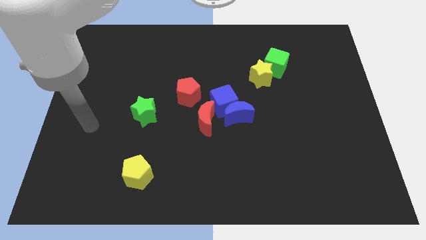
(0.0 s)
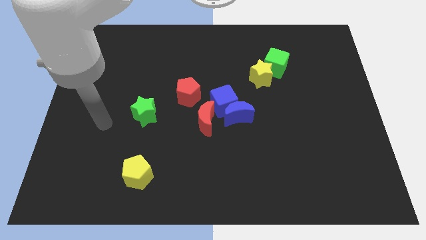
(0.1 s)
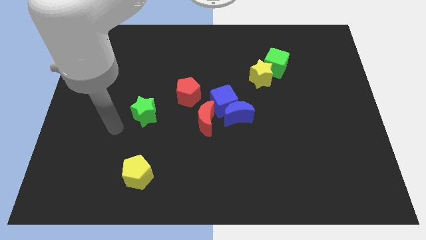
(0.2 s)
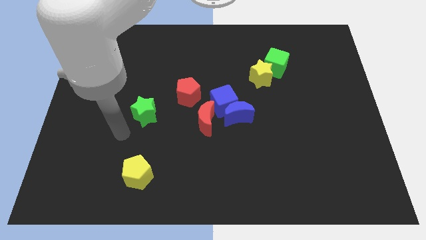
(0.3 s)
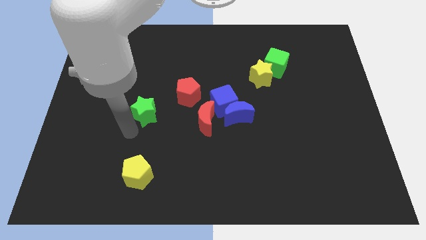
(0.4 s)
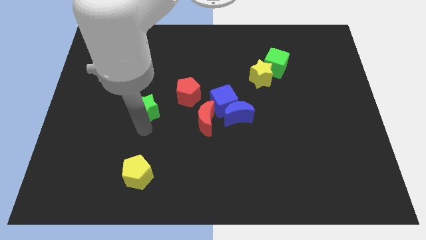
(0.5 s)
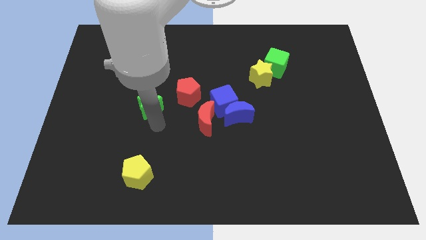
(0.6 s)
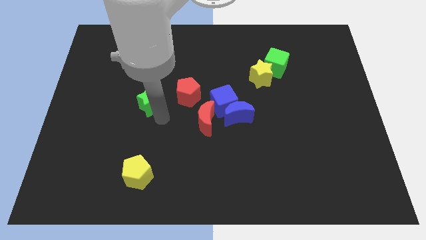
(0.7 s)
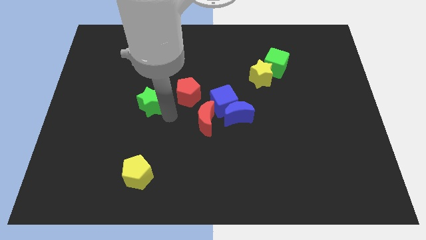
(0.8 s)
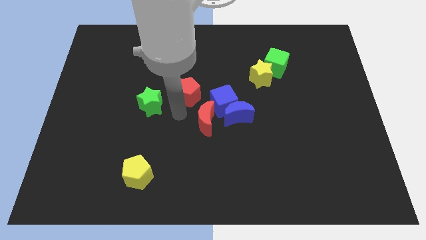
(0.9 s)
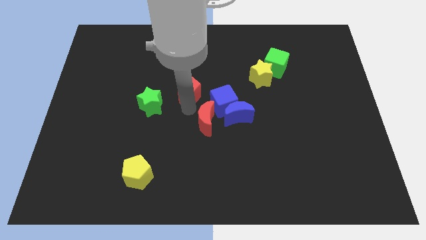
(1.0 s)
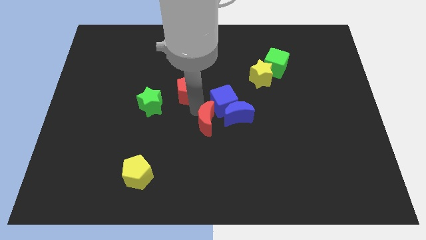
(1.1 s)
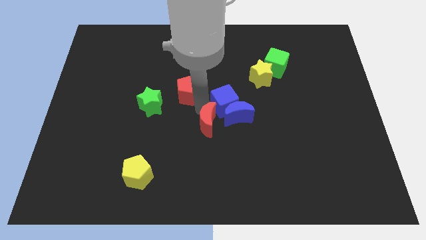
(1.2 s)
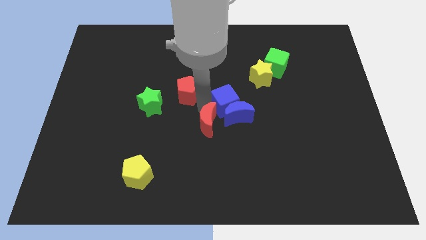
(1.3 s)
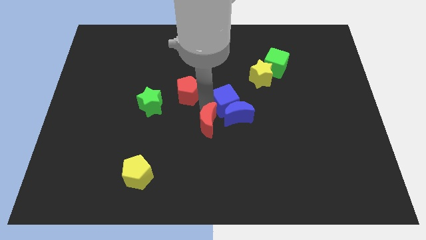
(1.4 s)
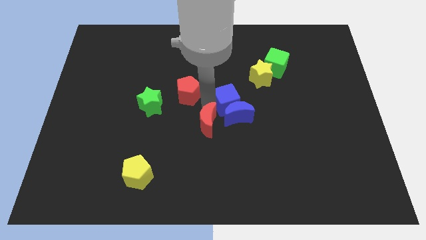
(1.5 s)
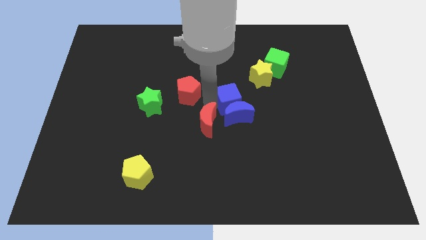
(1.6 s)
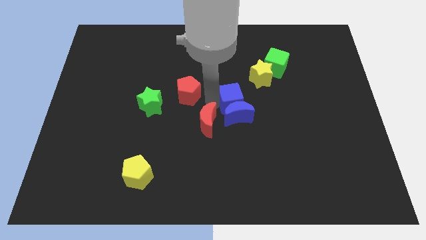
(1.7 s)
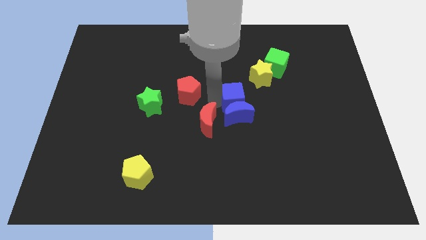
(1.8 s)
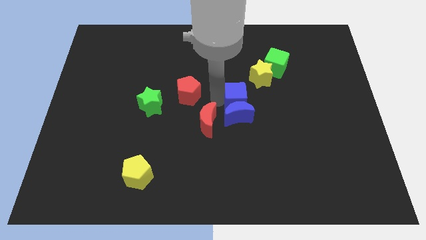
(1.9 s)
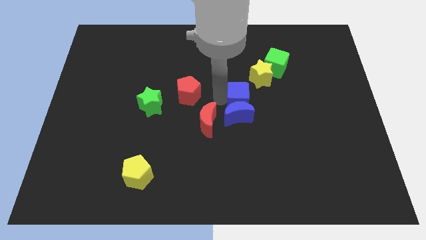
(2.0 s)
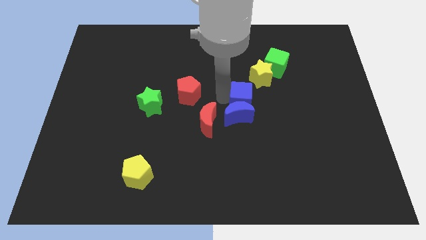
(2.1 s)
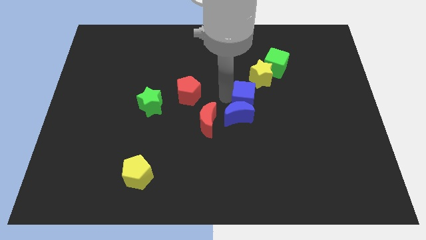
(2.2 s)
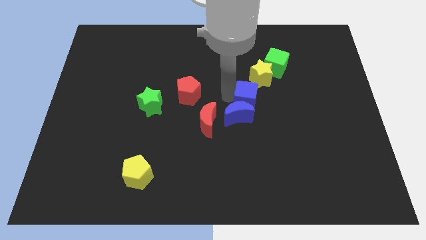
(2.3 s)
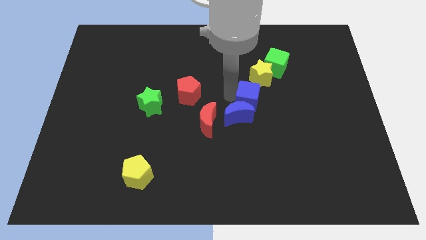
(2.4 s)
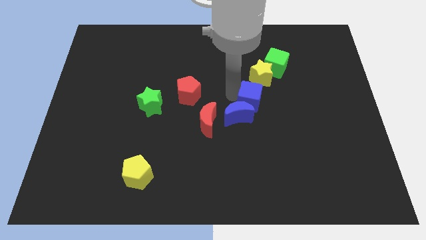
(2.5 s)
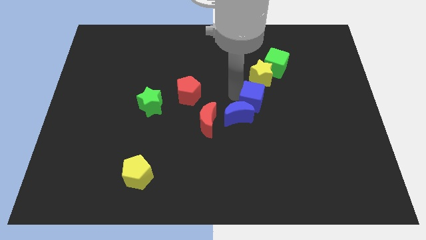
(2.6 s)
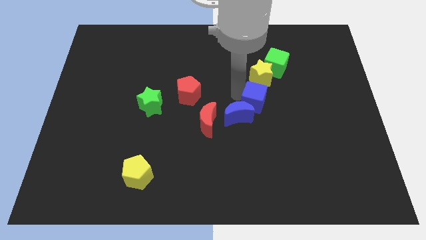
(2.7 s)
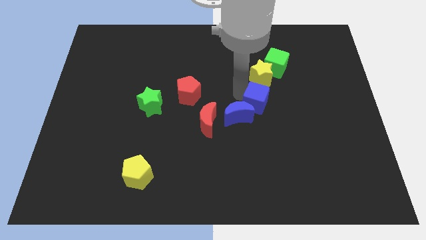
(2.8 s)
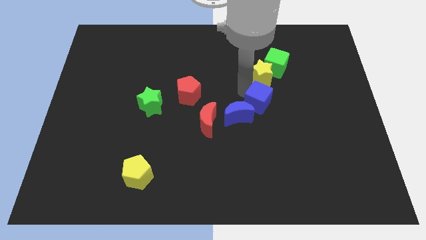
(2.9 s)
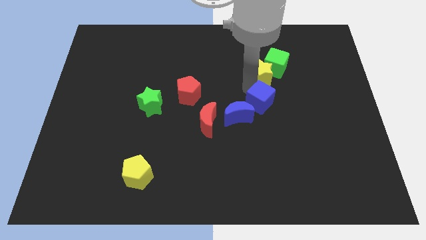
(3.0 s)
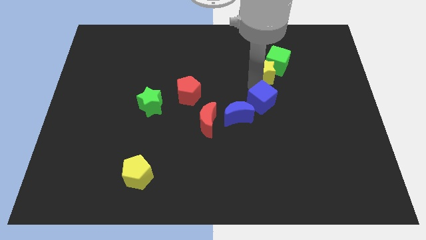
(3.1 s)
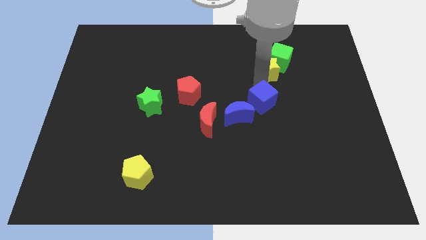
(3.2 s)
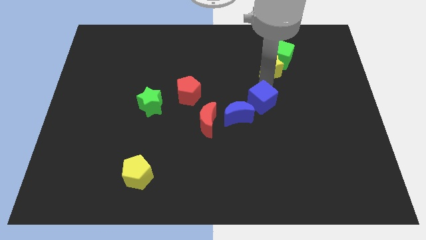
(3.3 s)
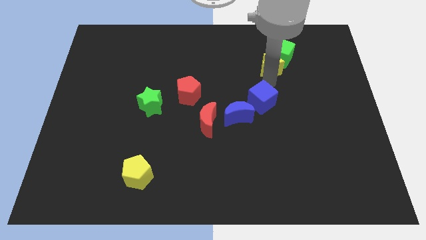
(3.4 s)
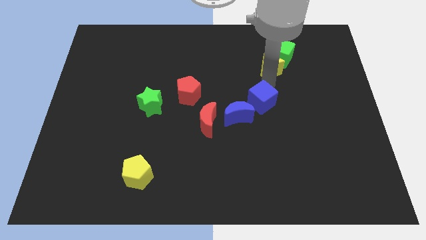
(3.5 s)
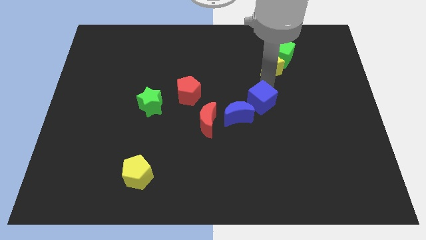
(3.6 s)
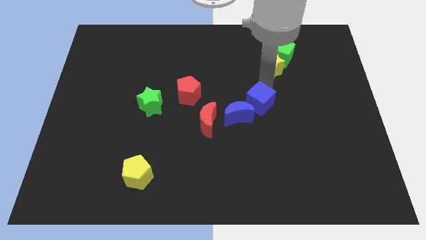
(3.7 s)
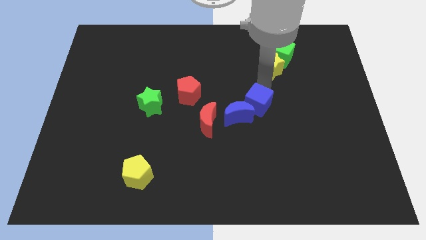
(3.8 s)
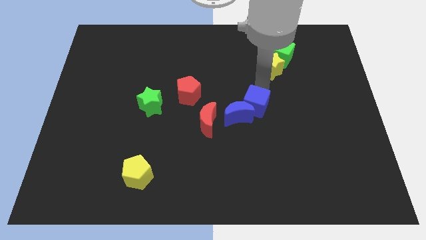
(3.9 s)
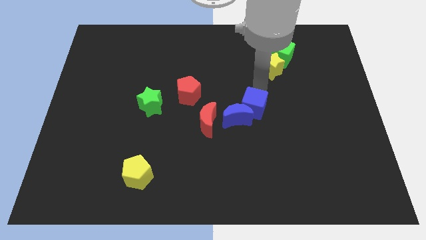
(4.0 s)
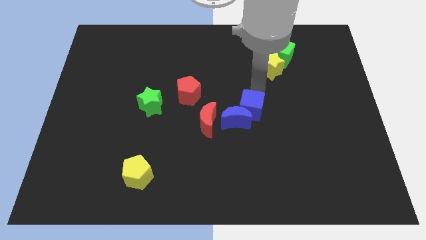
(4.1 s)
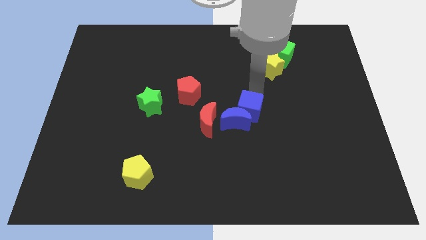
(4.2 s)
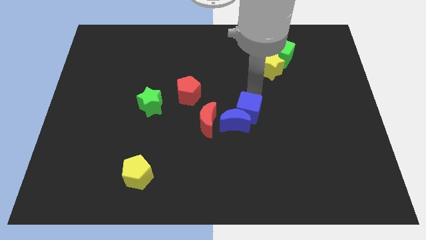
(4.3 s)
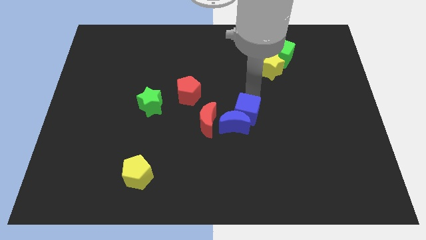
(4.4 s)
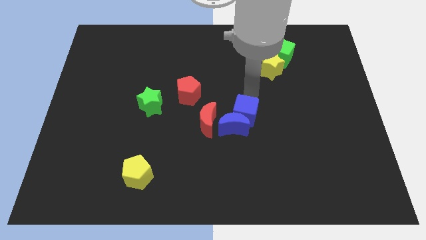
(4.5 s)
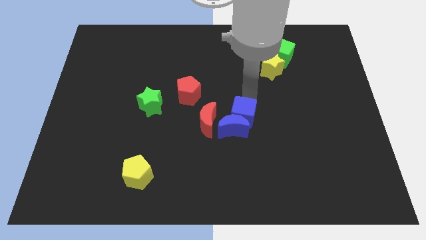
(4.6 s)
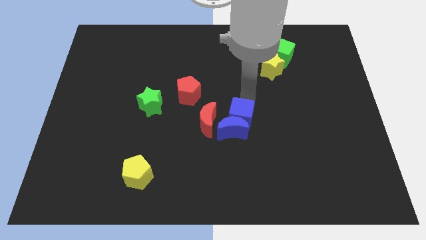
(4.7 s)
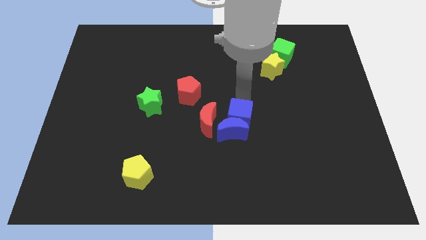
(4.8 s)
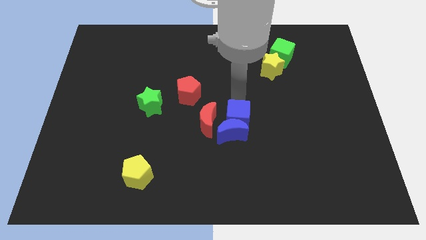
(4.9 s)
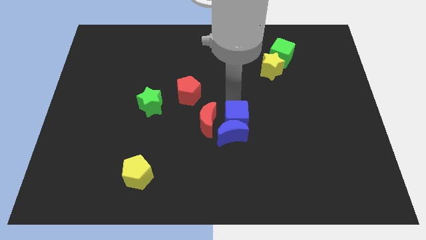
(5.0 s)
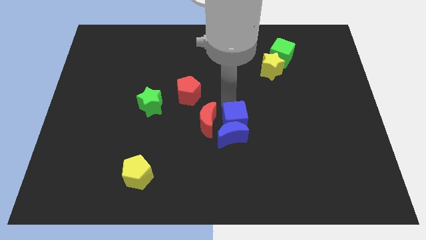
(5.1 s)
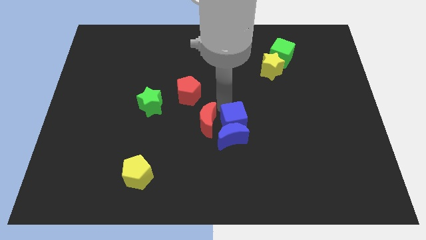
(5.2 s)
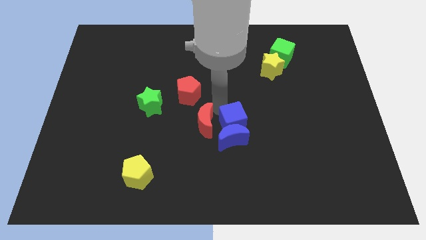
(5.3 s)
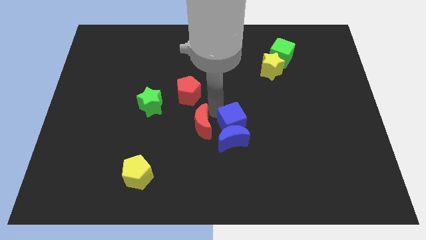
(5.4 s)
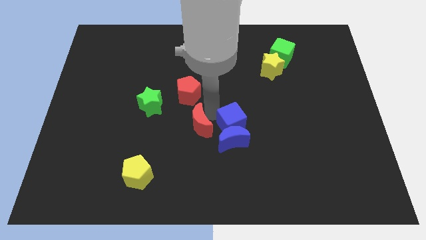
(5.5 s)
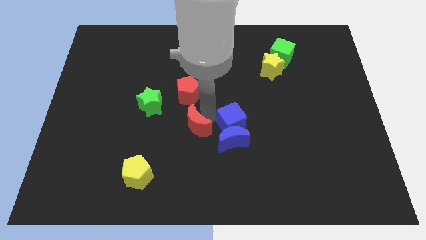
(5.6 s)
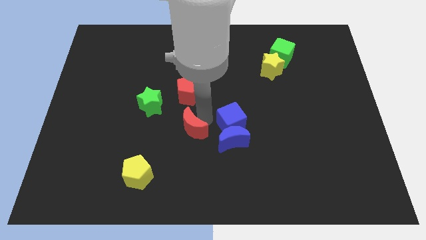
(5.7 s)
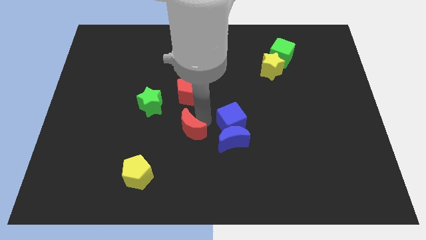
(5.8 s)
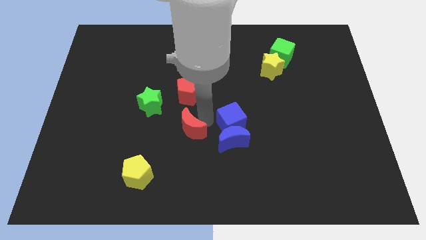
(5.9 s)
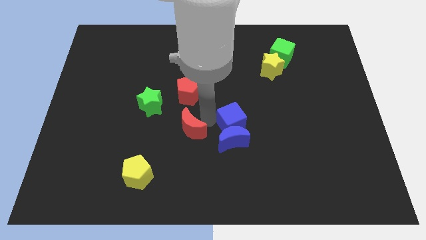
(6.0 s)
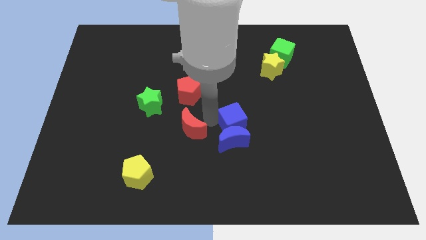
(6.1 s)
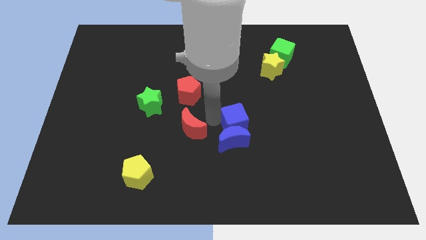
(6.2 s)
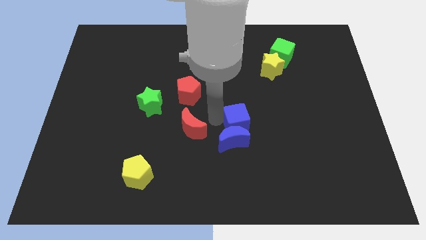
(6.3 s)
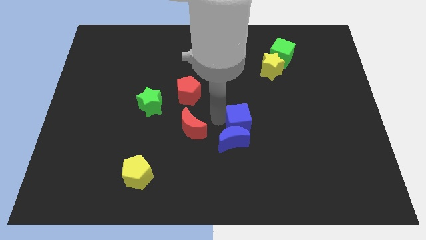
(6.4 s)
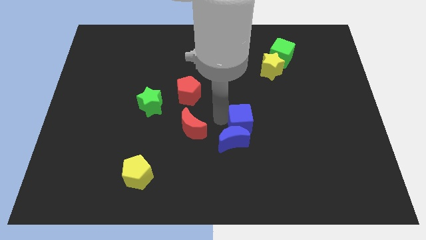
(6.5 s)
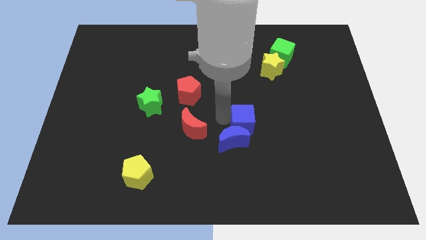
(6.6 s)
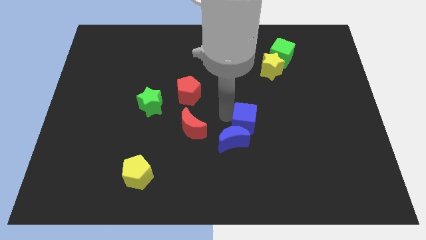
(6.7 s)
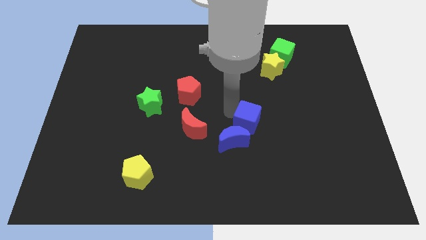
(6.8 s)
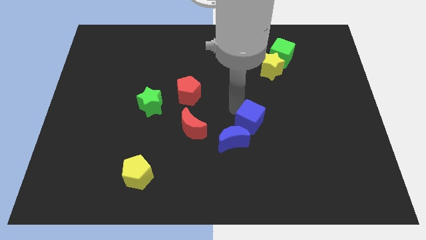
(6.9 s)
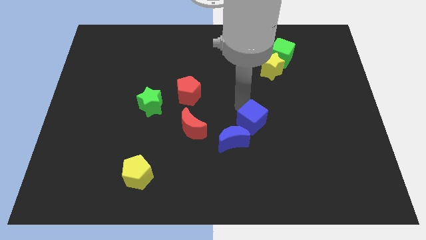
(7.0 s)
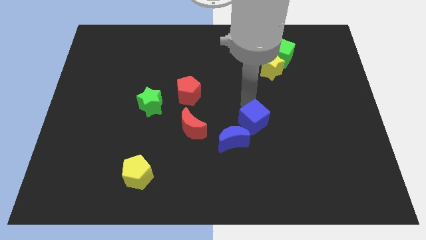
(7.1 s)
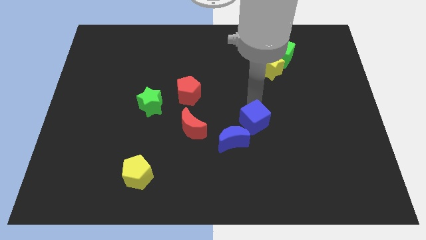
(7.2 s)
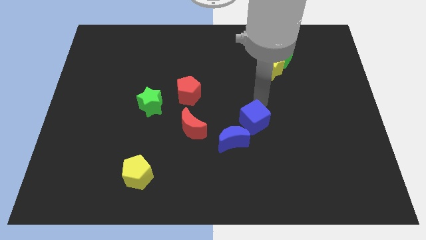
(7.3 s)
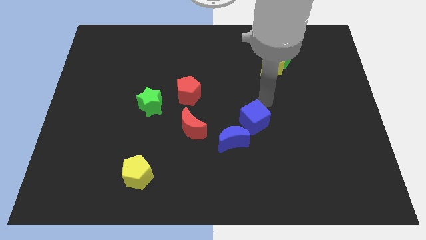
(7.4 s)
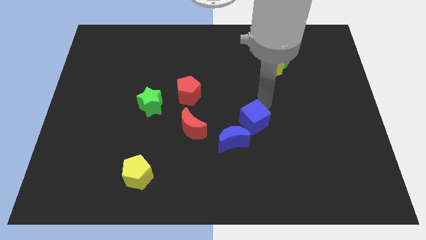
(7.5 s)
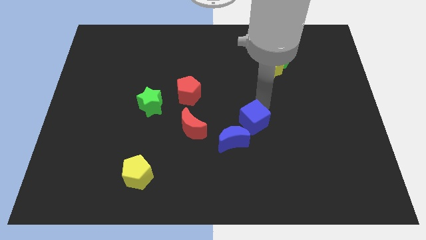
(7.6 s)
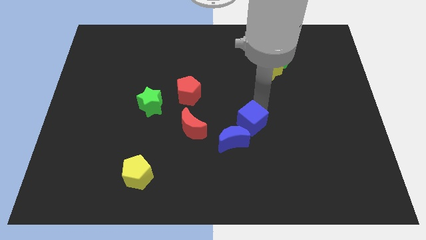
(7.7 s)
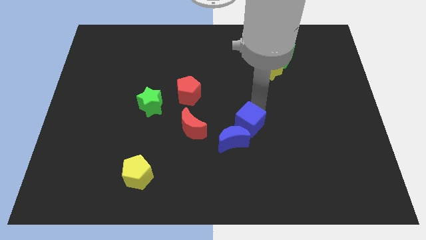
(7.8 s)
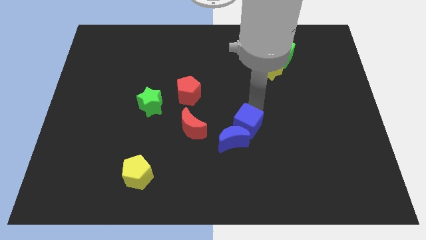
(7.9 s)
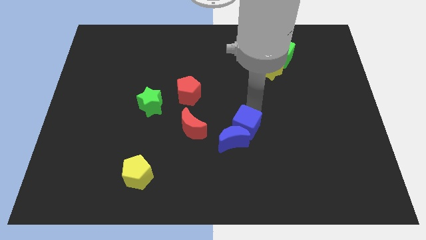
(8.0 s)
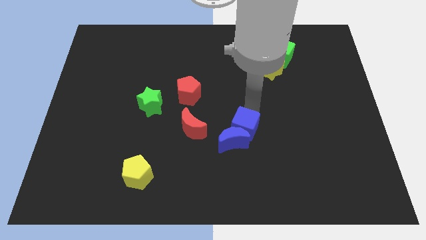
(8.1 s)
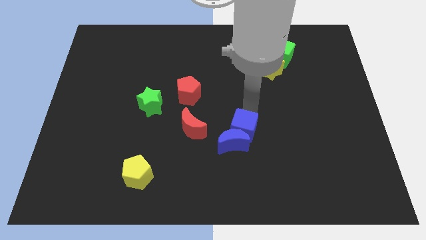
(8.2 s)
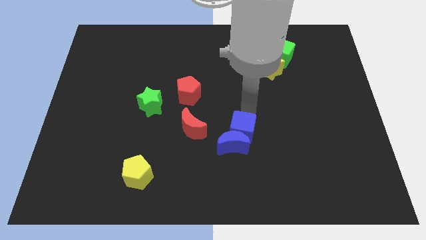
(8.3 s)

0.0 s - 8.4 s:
slightly slide the blue cube downwards
